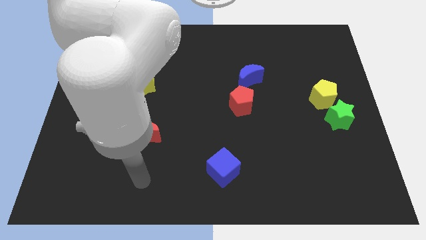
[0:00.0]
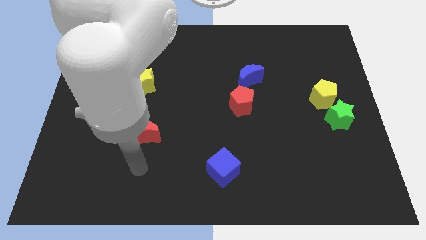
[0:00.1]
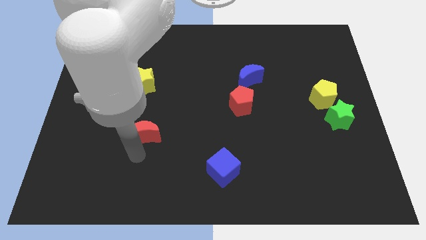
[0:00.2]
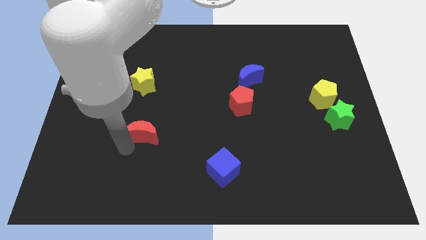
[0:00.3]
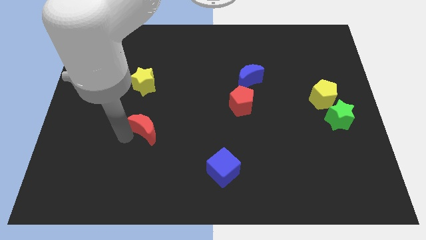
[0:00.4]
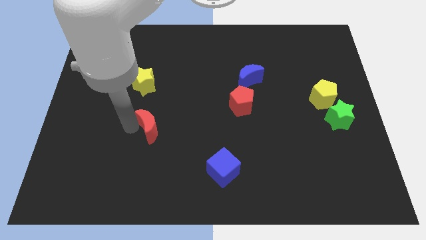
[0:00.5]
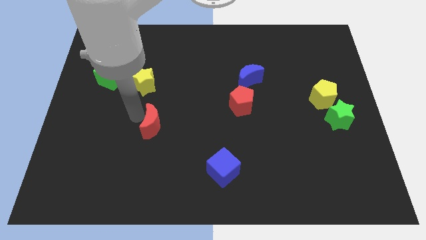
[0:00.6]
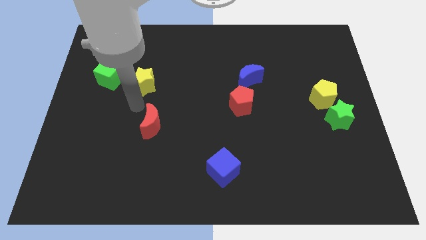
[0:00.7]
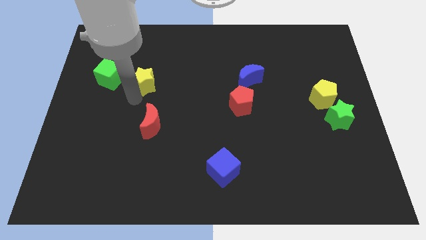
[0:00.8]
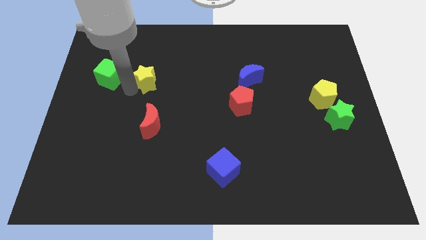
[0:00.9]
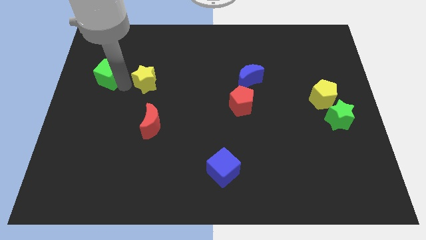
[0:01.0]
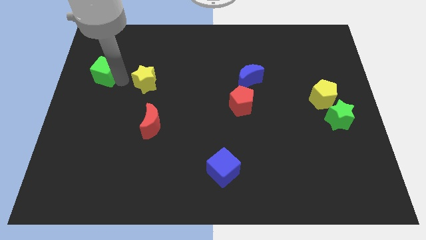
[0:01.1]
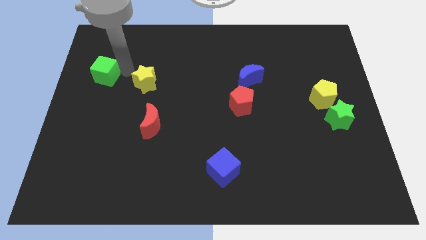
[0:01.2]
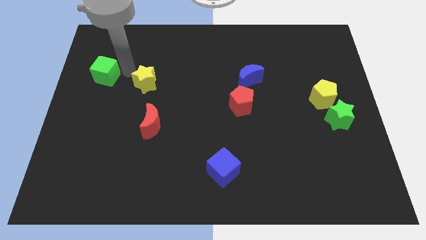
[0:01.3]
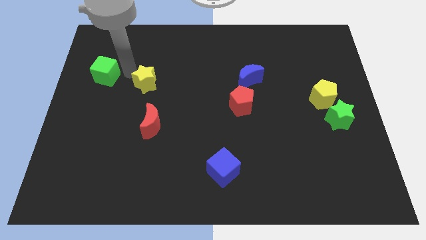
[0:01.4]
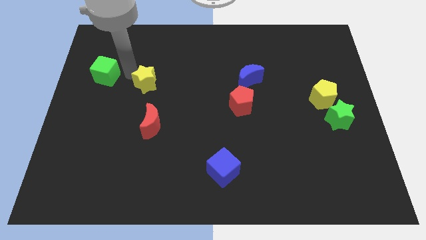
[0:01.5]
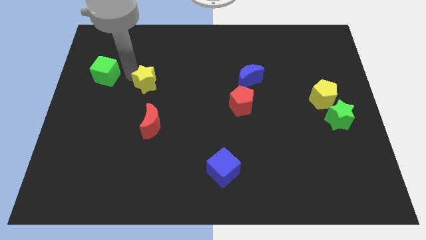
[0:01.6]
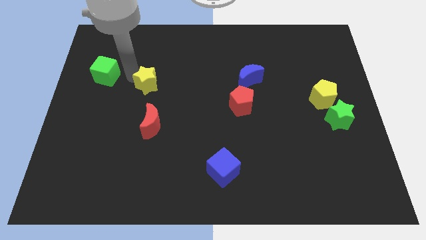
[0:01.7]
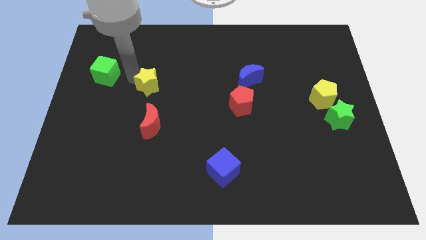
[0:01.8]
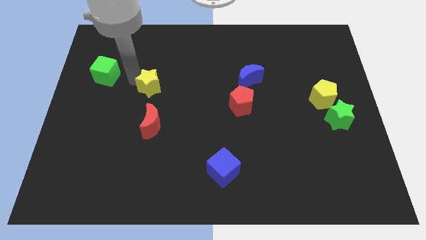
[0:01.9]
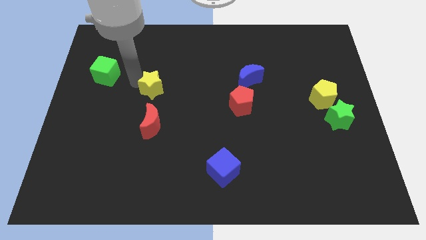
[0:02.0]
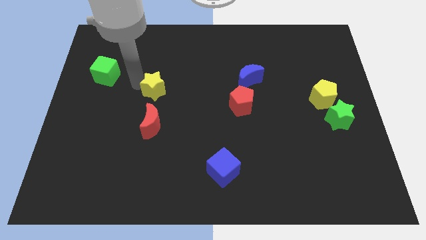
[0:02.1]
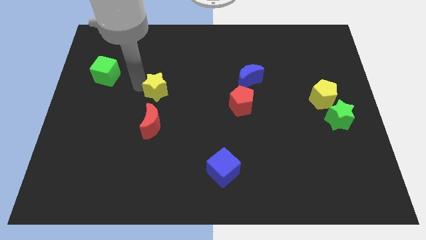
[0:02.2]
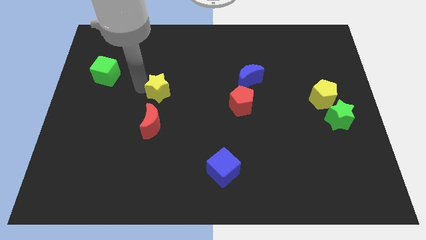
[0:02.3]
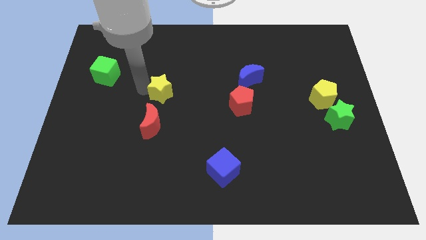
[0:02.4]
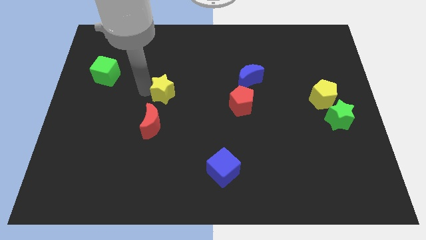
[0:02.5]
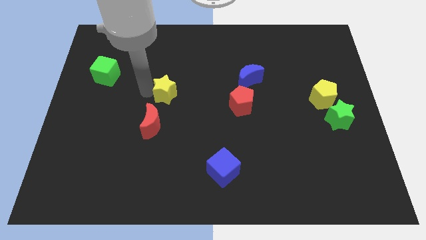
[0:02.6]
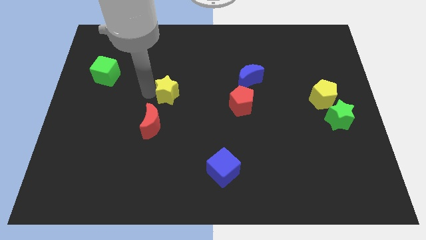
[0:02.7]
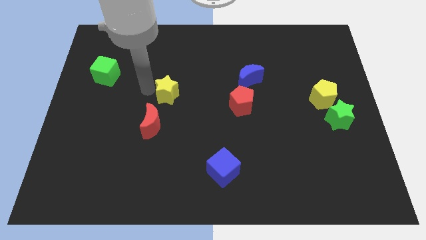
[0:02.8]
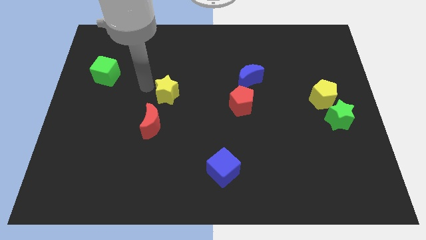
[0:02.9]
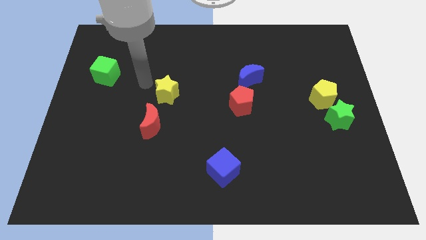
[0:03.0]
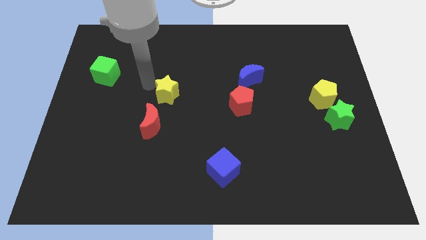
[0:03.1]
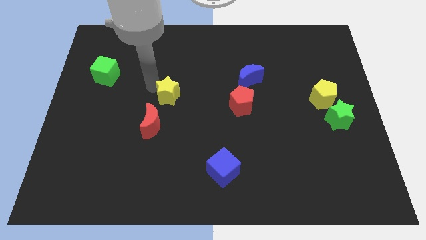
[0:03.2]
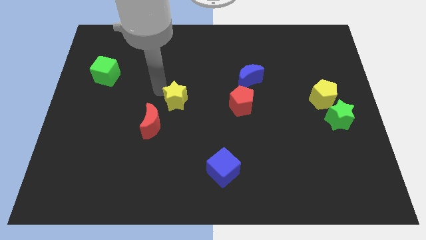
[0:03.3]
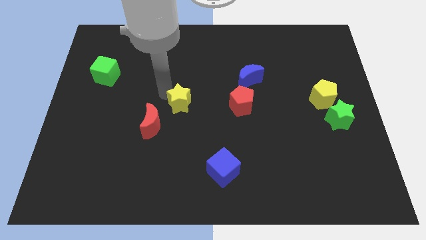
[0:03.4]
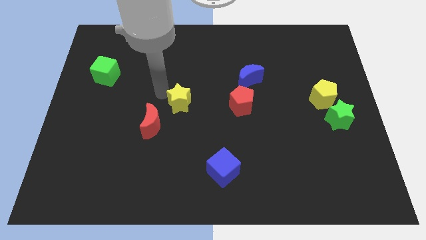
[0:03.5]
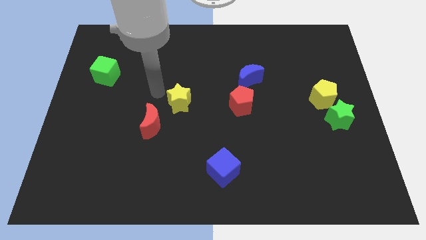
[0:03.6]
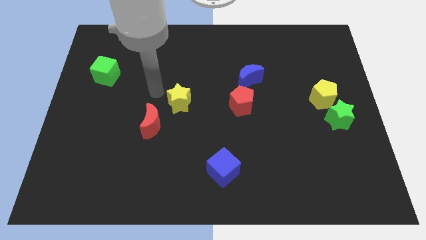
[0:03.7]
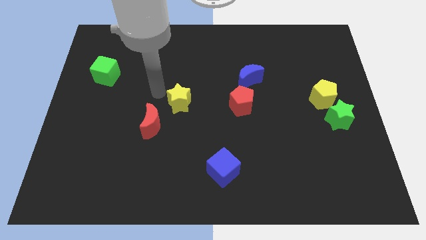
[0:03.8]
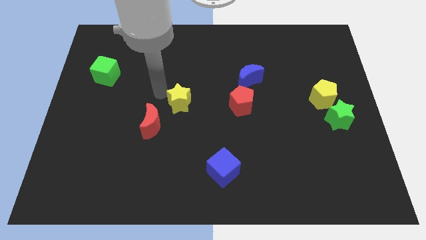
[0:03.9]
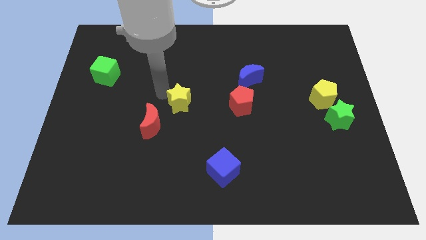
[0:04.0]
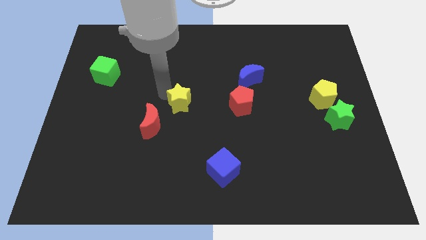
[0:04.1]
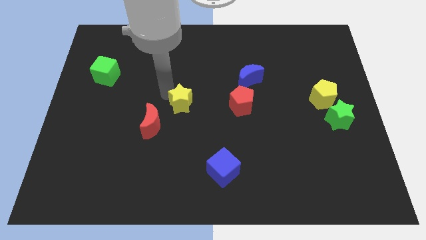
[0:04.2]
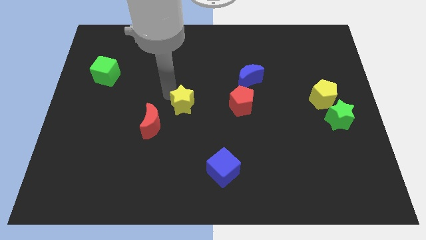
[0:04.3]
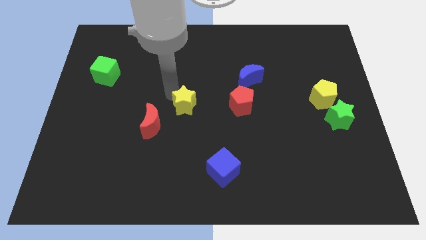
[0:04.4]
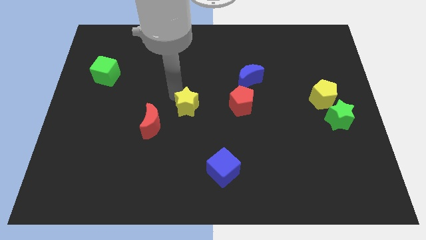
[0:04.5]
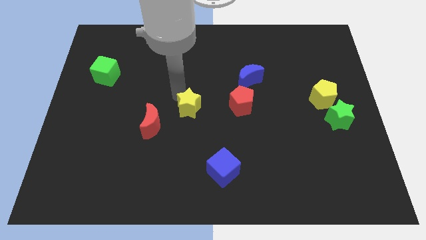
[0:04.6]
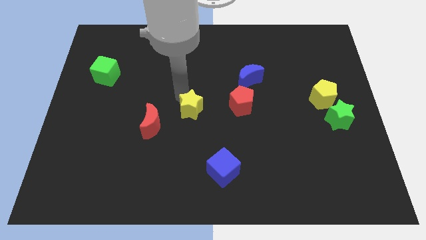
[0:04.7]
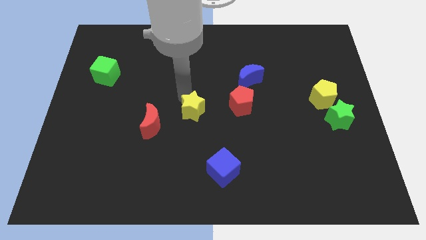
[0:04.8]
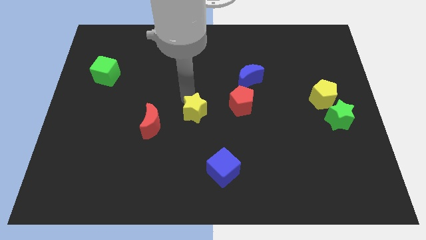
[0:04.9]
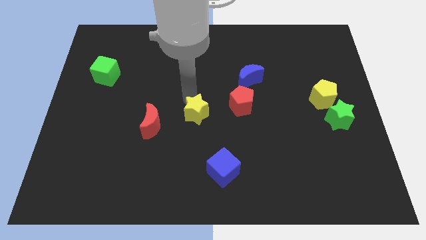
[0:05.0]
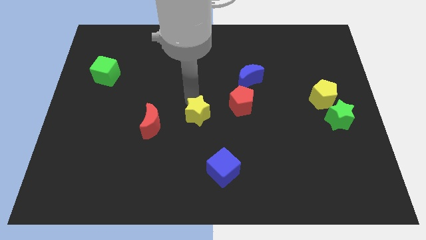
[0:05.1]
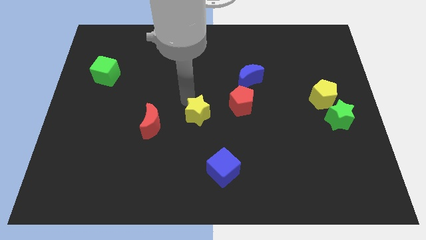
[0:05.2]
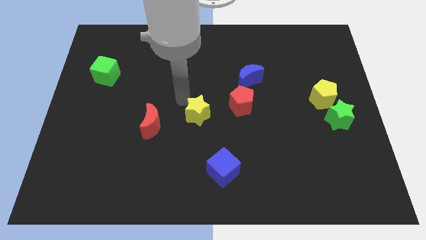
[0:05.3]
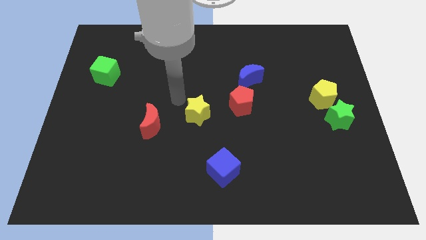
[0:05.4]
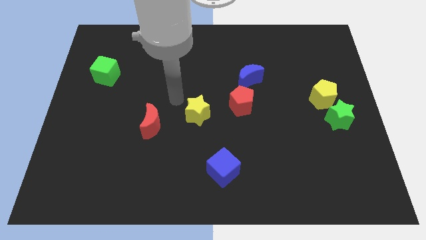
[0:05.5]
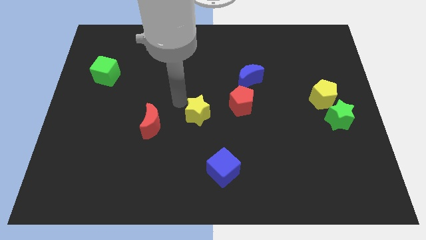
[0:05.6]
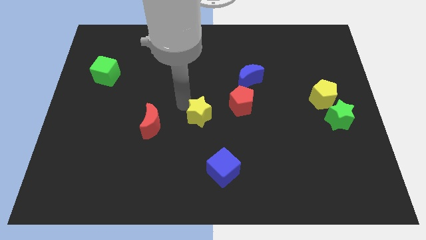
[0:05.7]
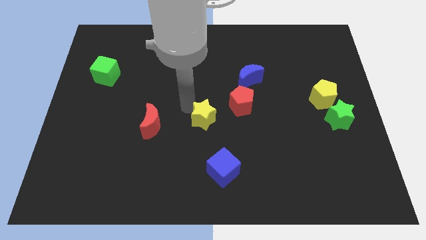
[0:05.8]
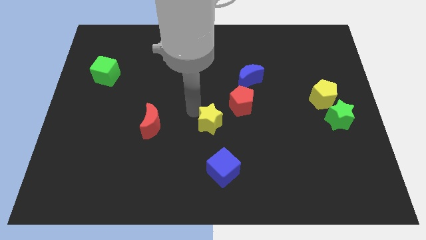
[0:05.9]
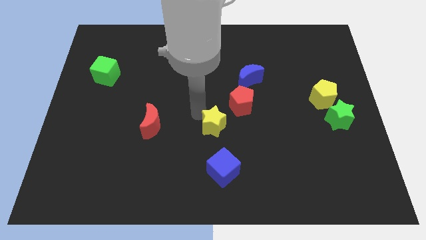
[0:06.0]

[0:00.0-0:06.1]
push the yellow star down and to the right diagonally

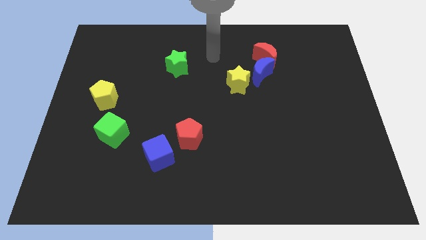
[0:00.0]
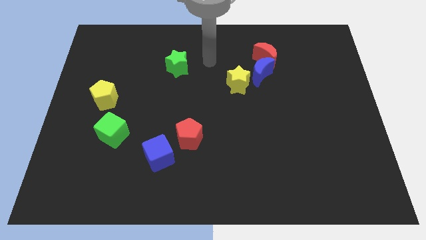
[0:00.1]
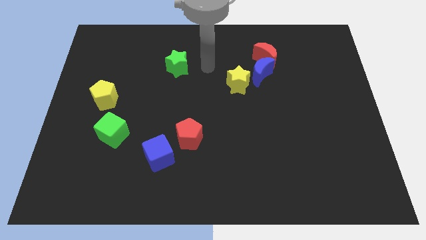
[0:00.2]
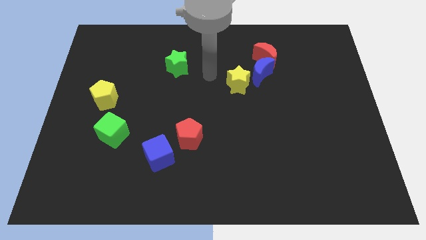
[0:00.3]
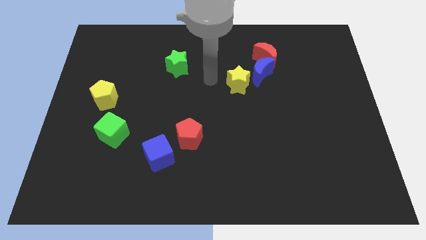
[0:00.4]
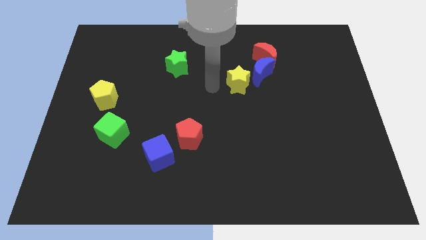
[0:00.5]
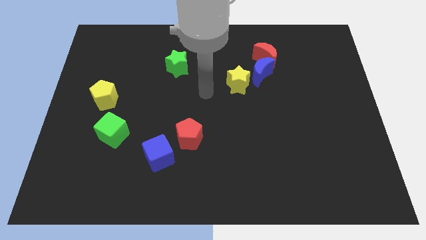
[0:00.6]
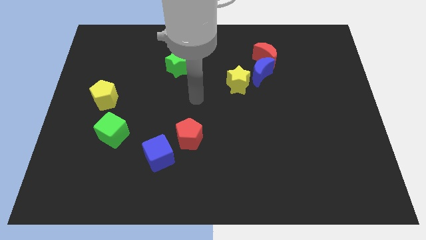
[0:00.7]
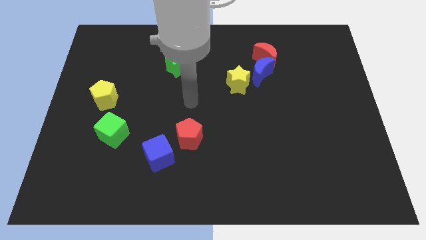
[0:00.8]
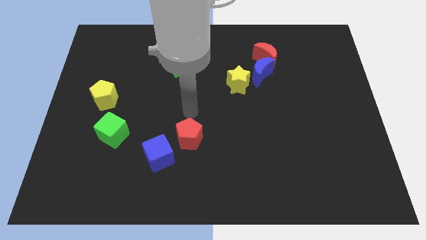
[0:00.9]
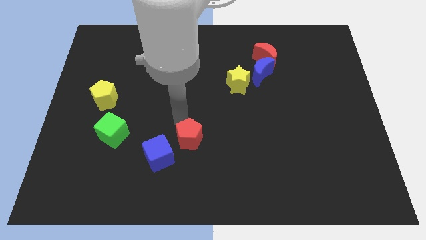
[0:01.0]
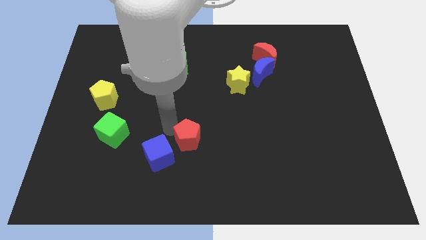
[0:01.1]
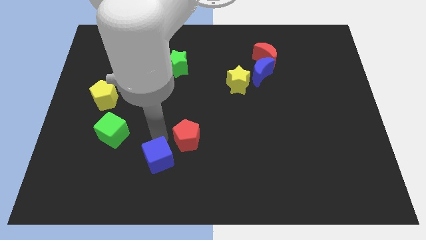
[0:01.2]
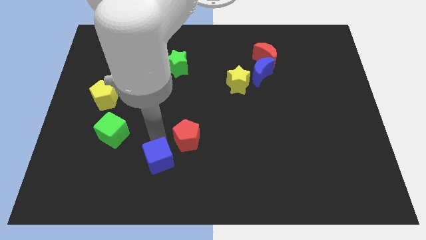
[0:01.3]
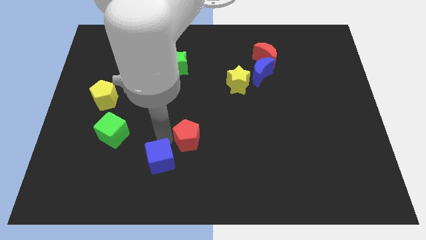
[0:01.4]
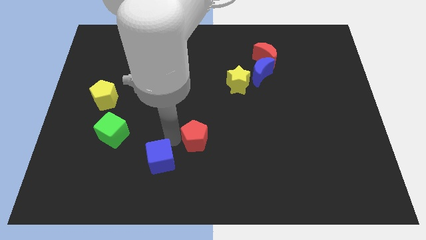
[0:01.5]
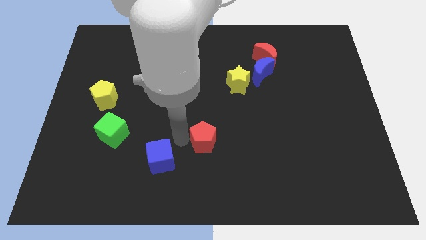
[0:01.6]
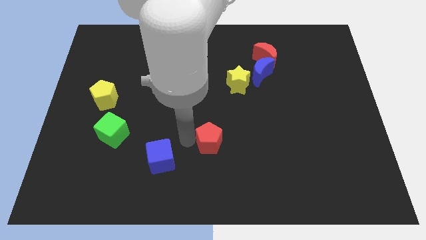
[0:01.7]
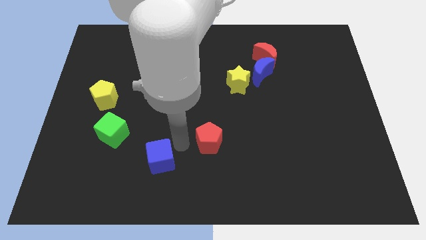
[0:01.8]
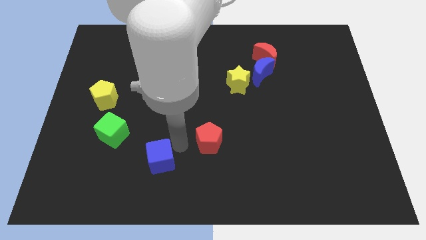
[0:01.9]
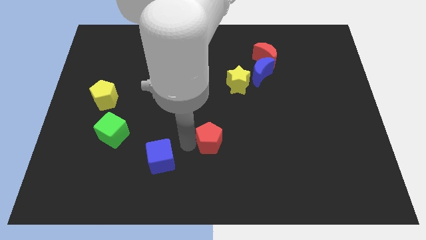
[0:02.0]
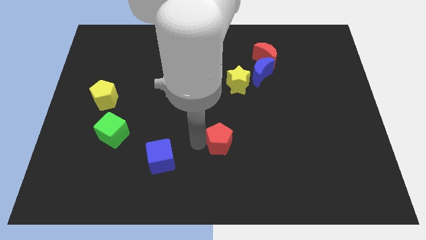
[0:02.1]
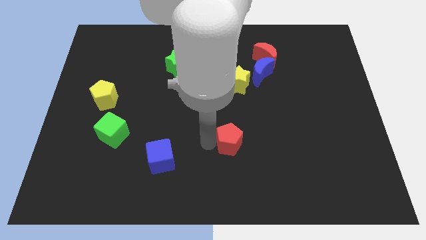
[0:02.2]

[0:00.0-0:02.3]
slide the red pentagon right a little bit
